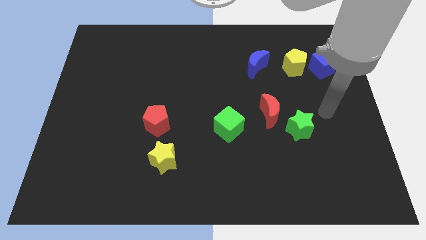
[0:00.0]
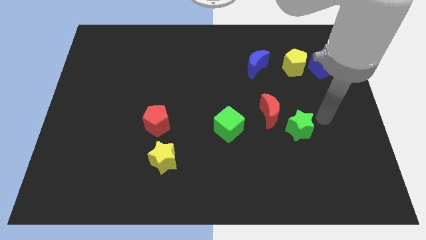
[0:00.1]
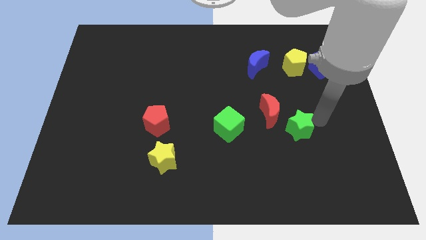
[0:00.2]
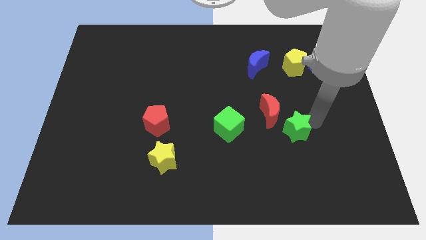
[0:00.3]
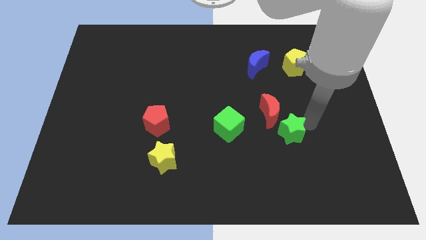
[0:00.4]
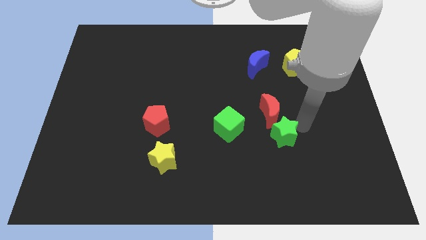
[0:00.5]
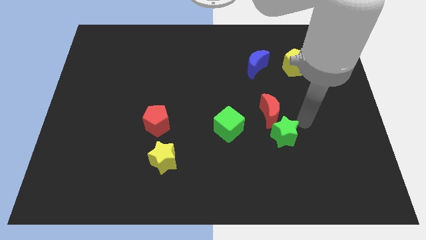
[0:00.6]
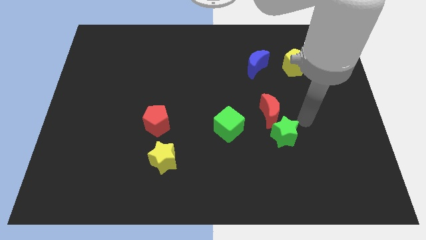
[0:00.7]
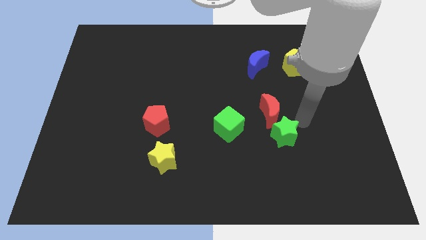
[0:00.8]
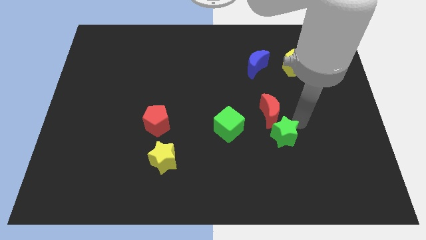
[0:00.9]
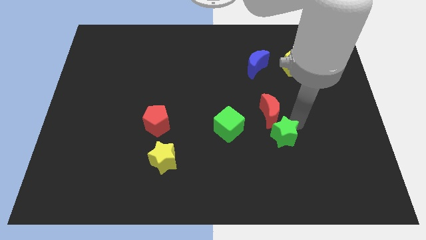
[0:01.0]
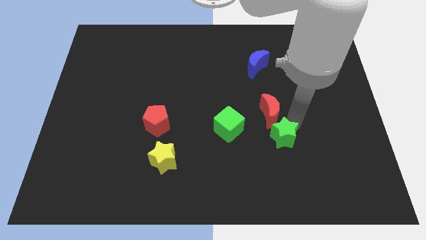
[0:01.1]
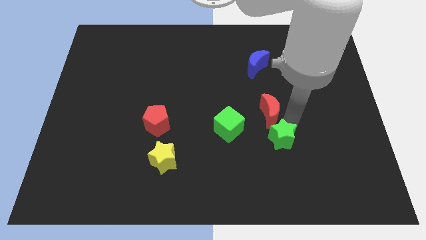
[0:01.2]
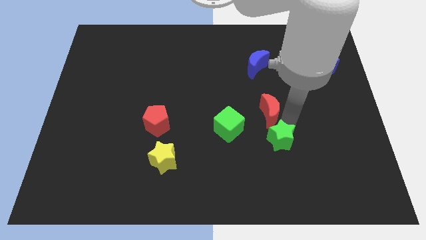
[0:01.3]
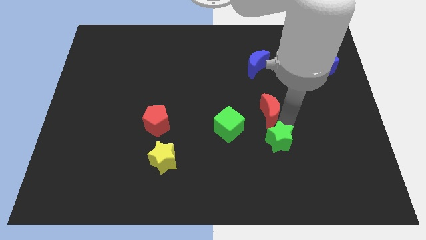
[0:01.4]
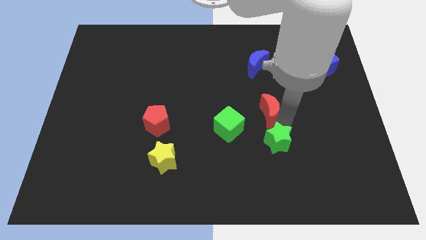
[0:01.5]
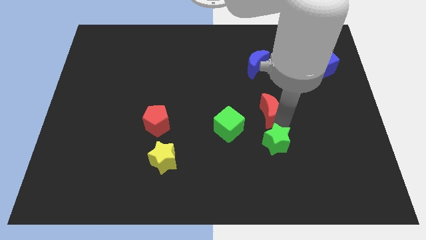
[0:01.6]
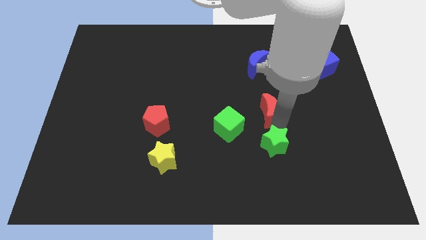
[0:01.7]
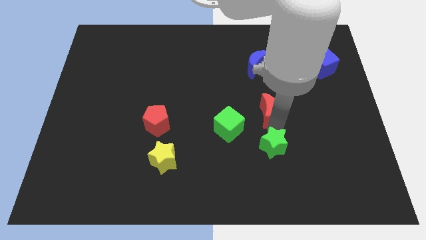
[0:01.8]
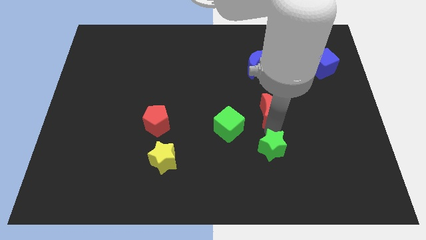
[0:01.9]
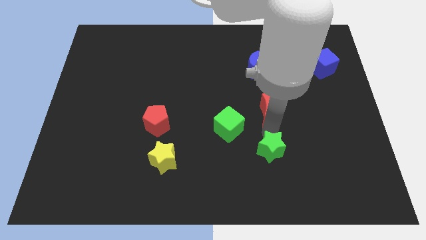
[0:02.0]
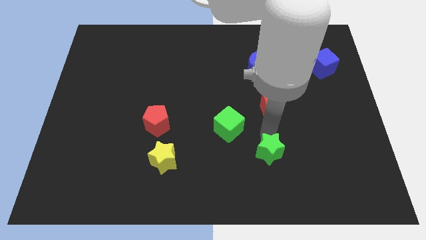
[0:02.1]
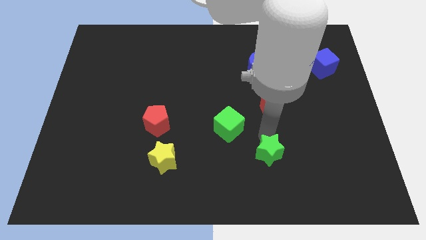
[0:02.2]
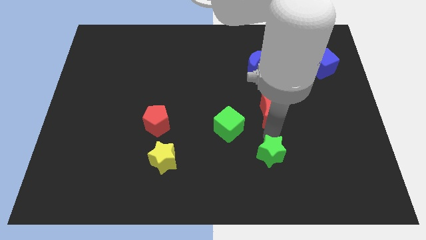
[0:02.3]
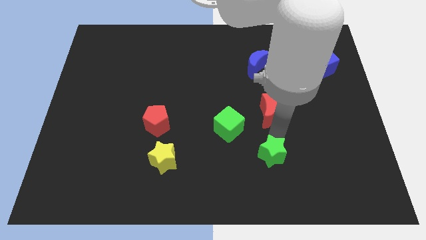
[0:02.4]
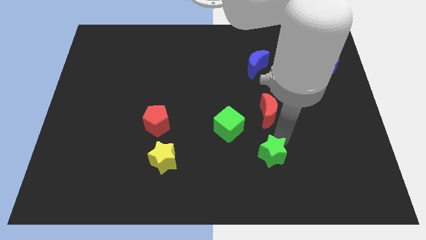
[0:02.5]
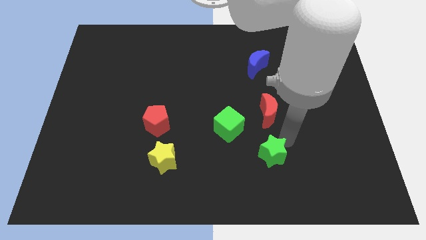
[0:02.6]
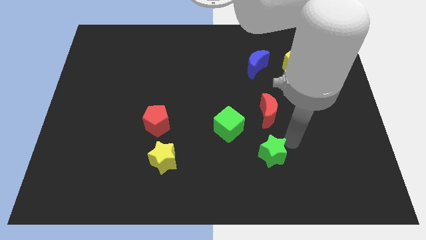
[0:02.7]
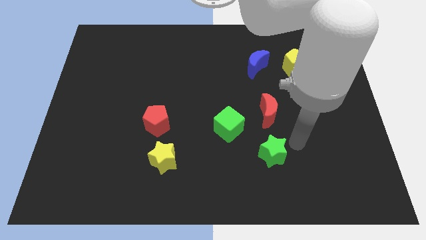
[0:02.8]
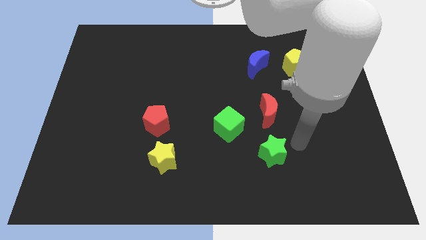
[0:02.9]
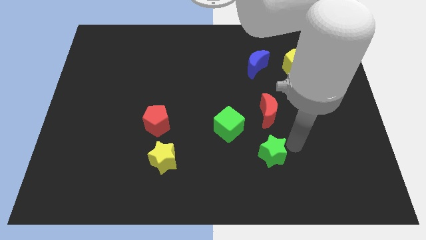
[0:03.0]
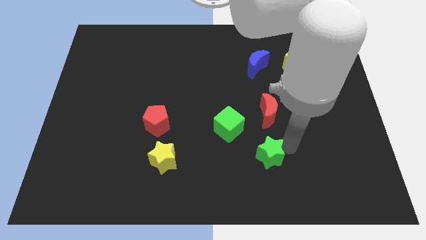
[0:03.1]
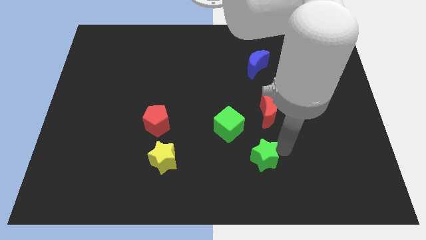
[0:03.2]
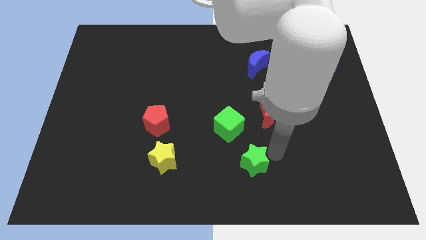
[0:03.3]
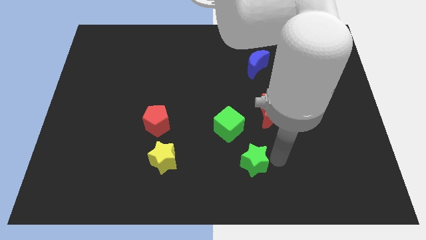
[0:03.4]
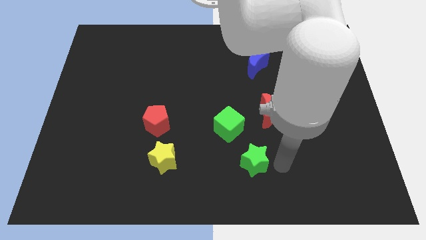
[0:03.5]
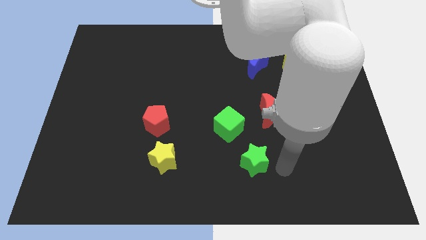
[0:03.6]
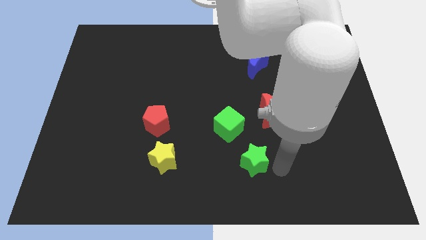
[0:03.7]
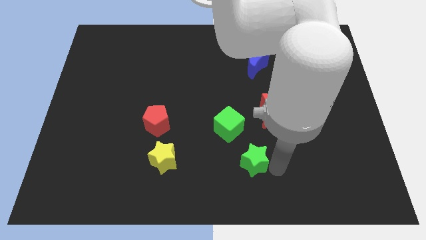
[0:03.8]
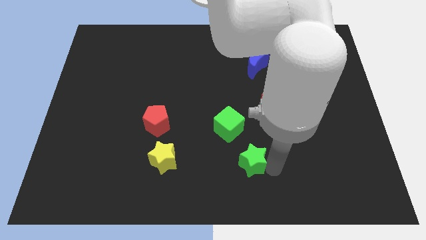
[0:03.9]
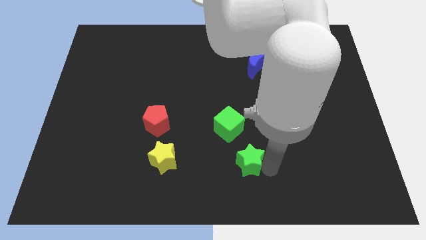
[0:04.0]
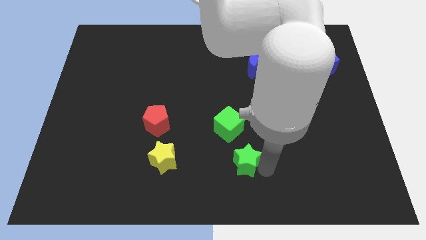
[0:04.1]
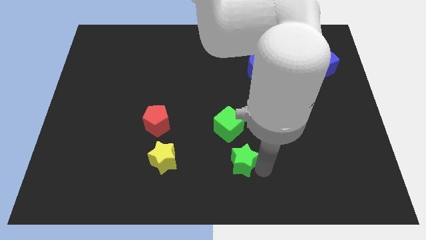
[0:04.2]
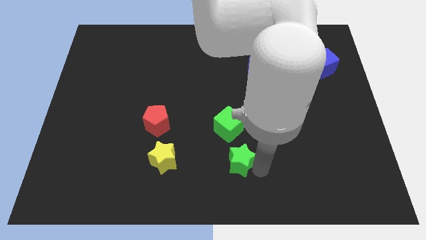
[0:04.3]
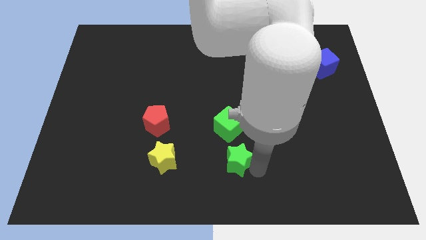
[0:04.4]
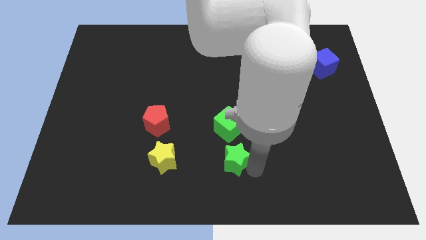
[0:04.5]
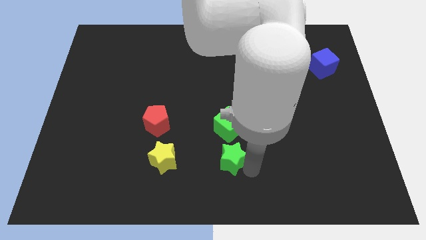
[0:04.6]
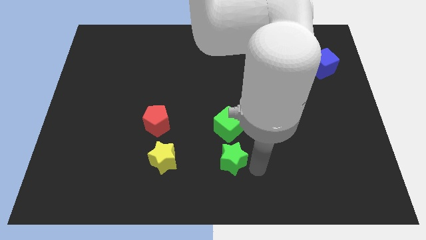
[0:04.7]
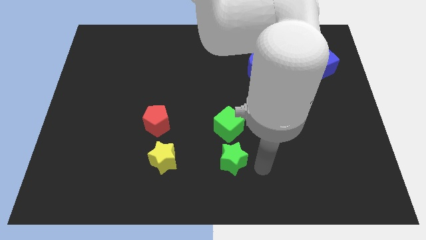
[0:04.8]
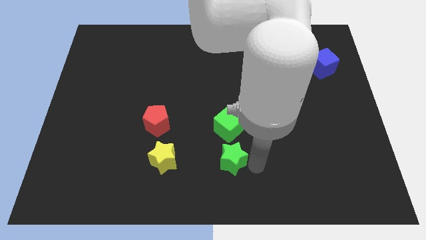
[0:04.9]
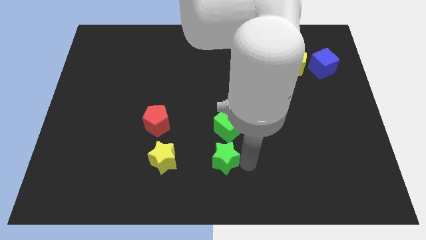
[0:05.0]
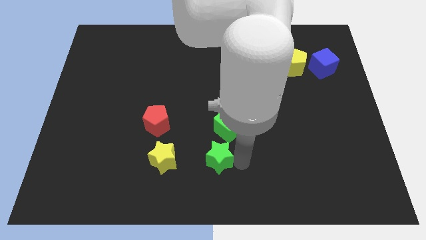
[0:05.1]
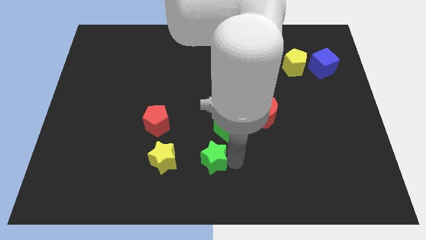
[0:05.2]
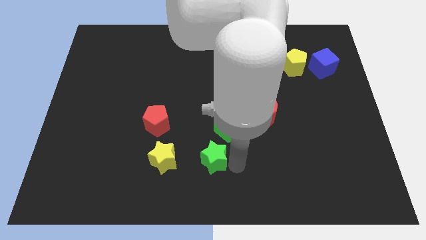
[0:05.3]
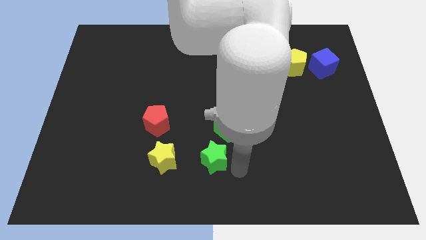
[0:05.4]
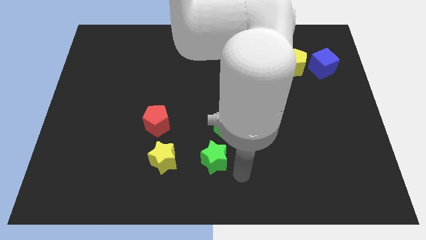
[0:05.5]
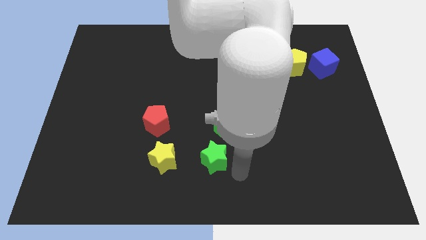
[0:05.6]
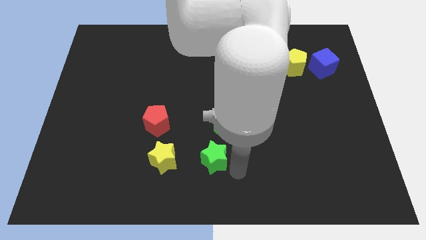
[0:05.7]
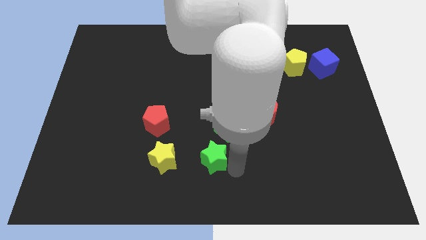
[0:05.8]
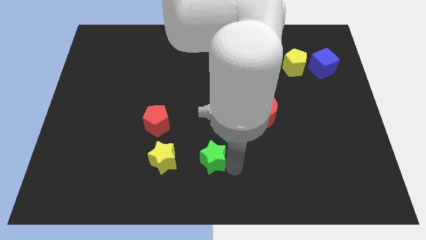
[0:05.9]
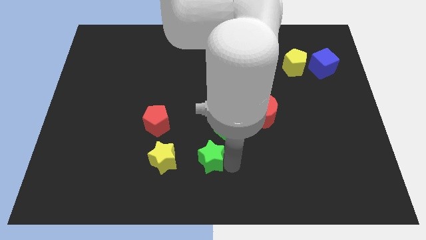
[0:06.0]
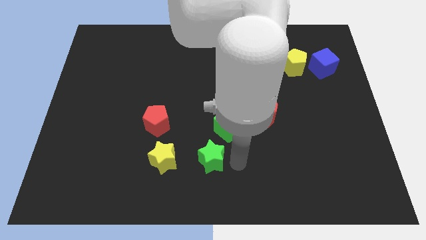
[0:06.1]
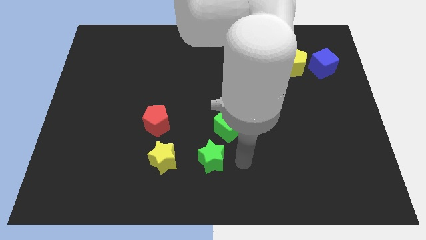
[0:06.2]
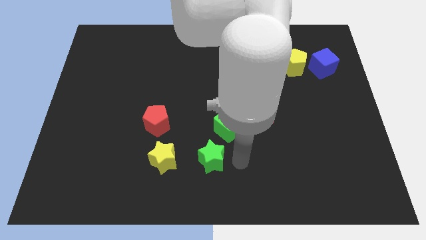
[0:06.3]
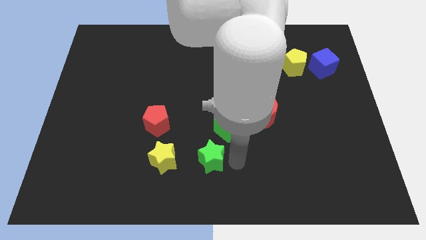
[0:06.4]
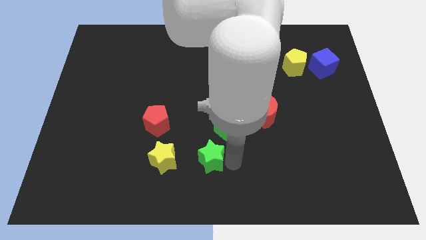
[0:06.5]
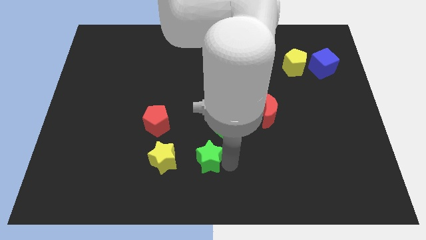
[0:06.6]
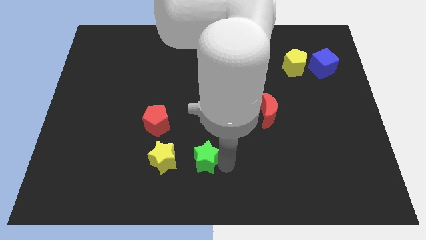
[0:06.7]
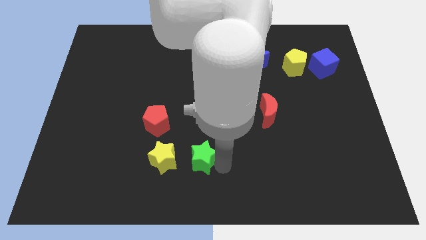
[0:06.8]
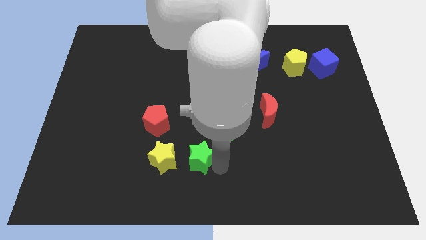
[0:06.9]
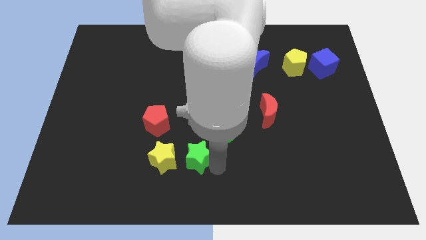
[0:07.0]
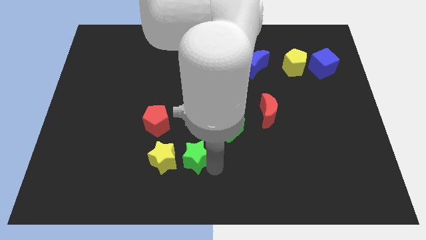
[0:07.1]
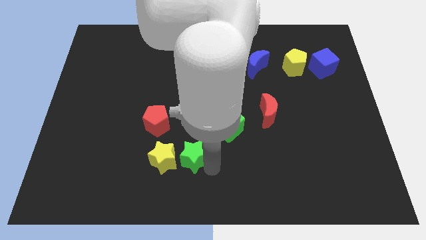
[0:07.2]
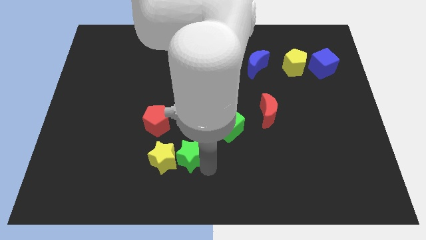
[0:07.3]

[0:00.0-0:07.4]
put the green star towards the yellow star
